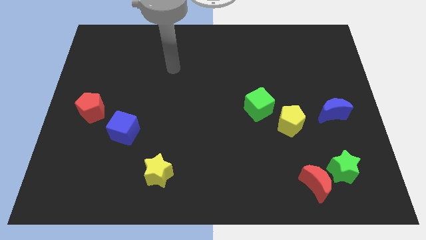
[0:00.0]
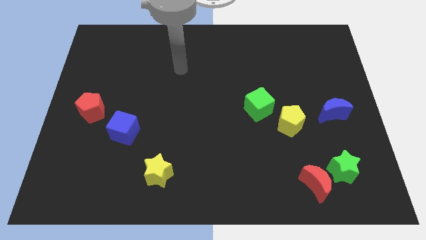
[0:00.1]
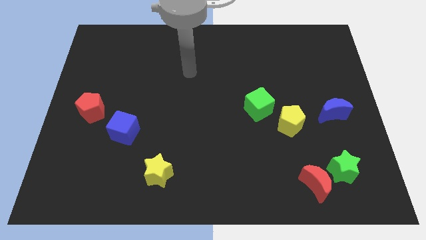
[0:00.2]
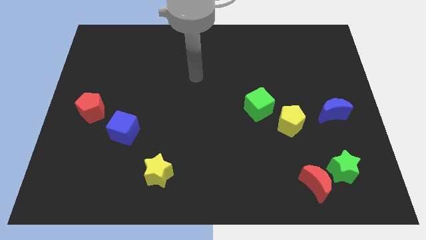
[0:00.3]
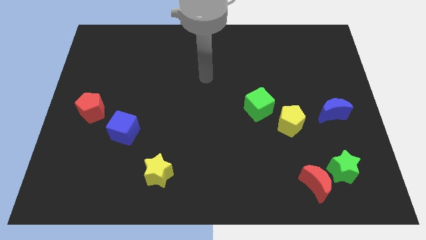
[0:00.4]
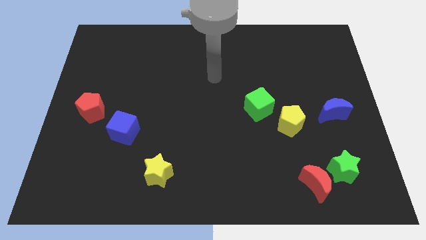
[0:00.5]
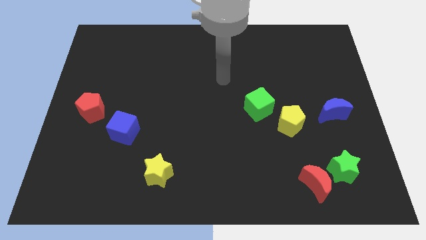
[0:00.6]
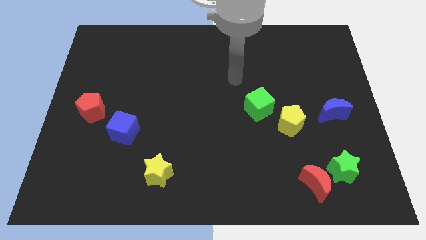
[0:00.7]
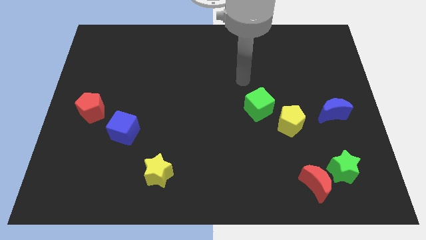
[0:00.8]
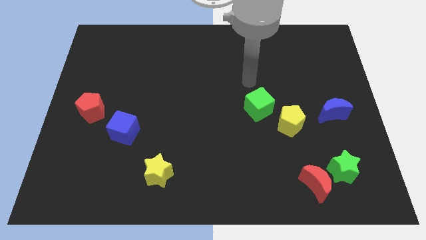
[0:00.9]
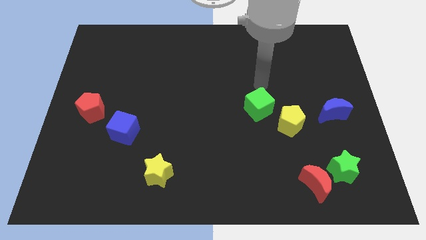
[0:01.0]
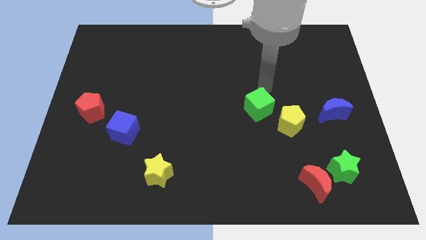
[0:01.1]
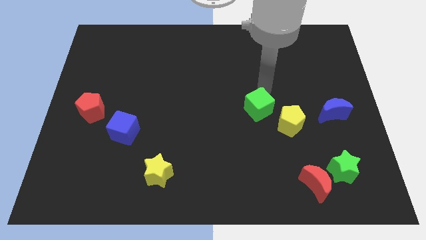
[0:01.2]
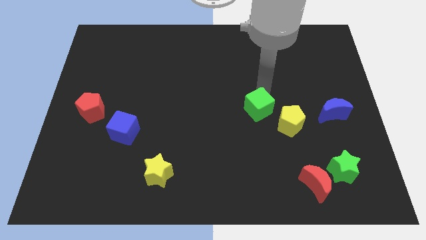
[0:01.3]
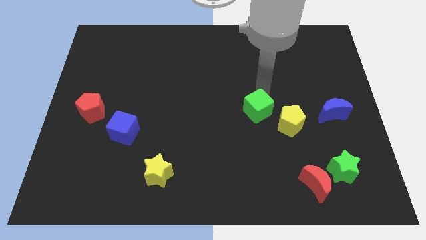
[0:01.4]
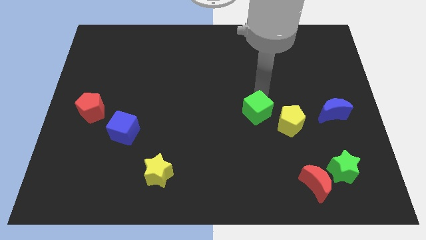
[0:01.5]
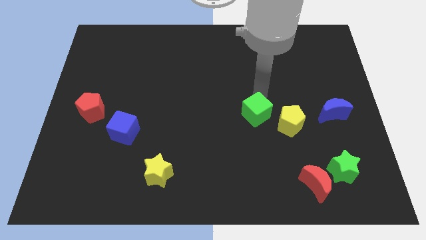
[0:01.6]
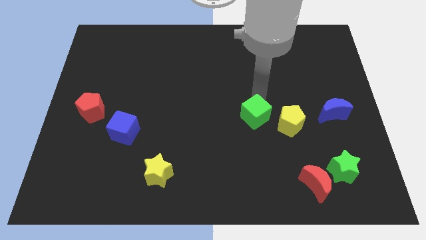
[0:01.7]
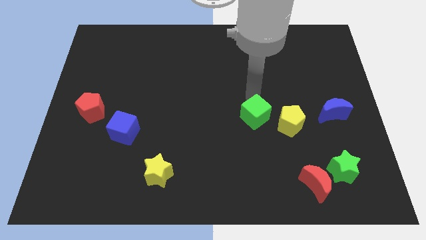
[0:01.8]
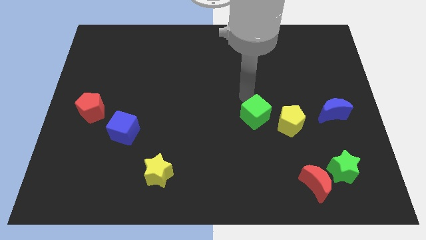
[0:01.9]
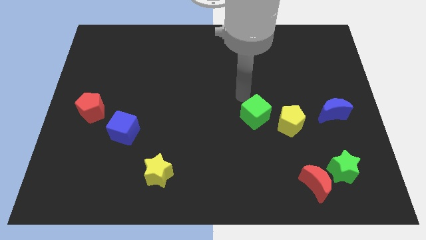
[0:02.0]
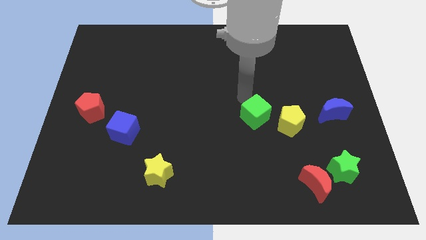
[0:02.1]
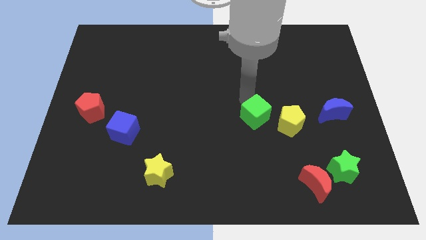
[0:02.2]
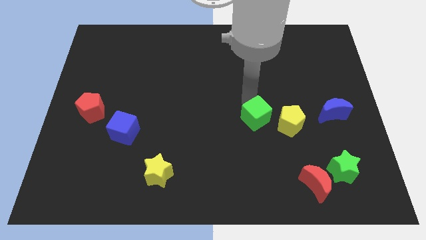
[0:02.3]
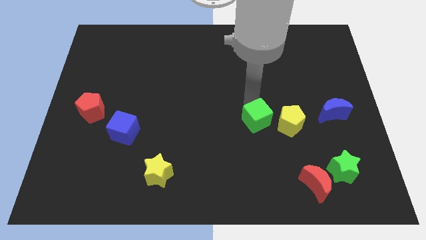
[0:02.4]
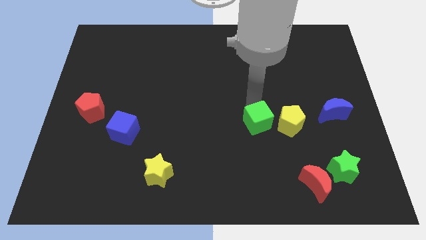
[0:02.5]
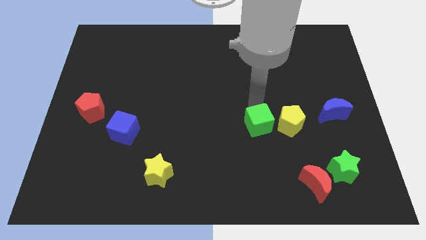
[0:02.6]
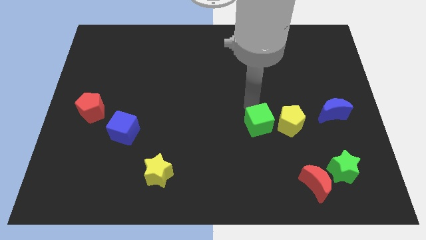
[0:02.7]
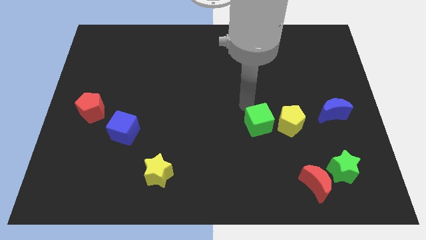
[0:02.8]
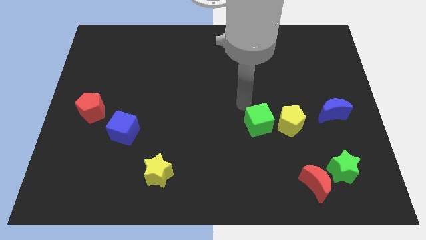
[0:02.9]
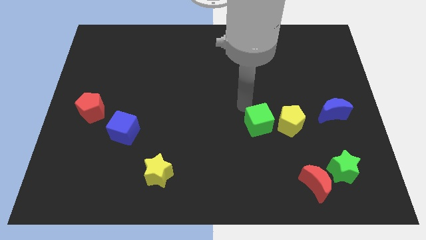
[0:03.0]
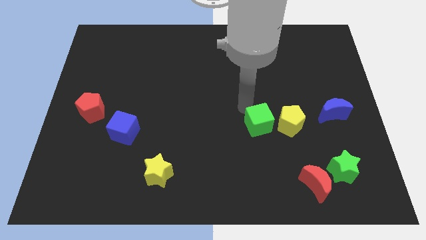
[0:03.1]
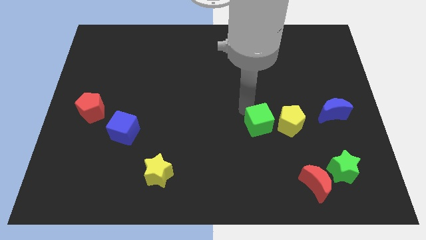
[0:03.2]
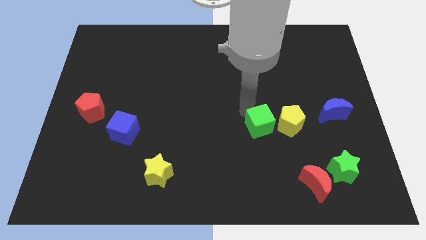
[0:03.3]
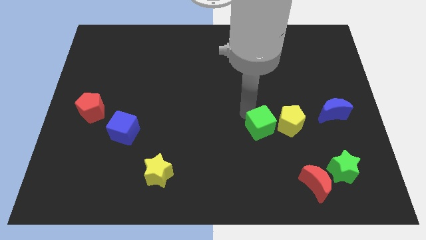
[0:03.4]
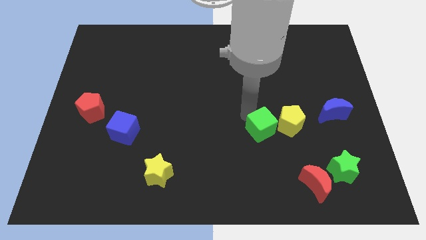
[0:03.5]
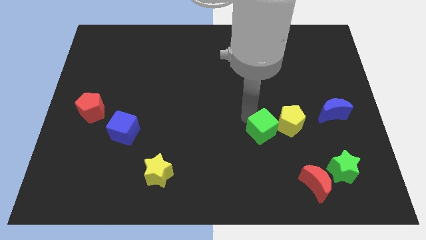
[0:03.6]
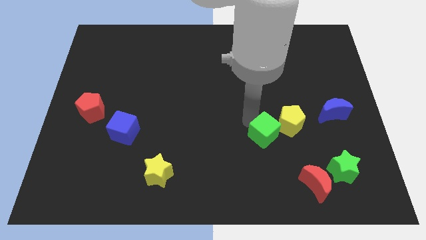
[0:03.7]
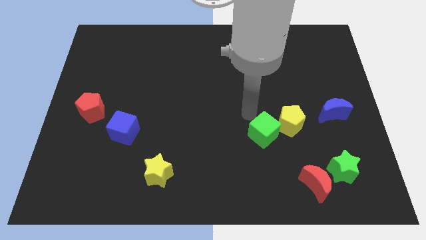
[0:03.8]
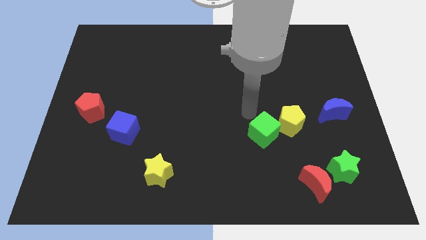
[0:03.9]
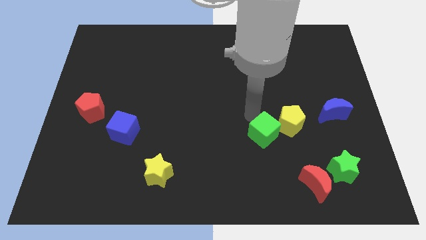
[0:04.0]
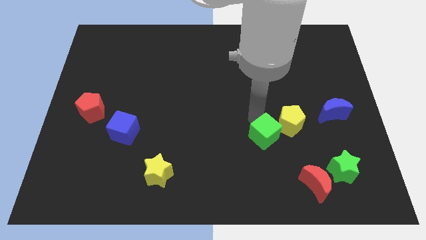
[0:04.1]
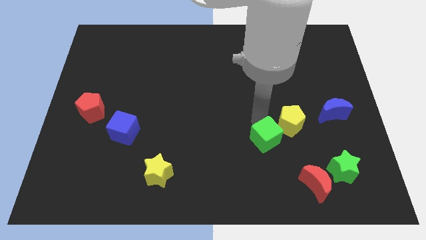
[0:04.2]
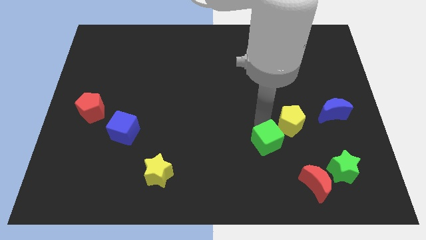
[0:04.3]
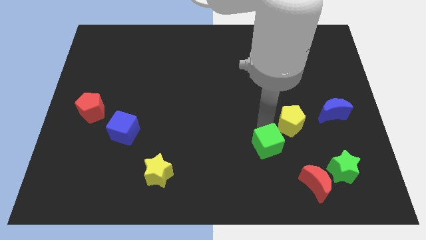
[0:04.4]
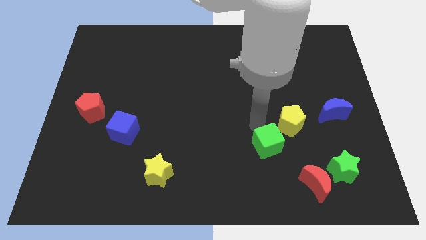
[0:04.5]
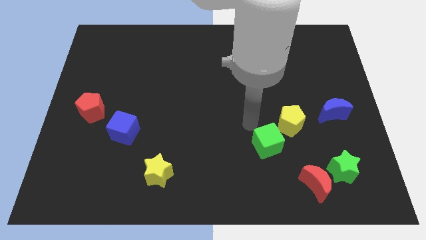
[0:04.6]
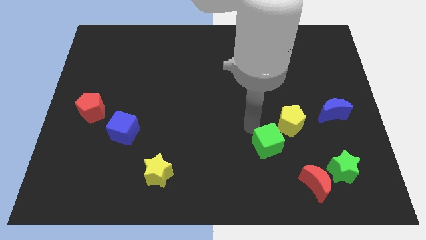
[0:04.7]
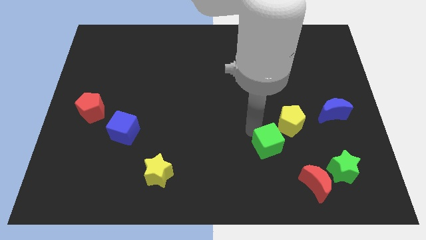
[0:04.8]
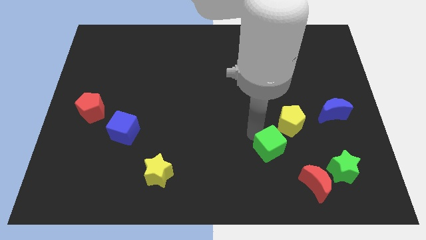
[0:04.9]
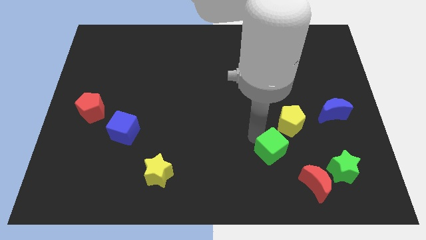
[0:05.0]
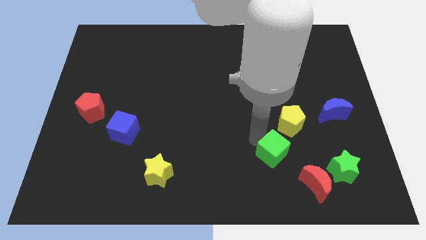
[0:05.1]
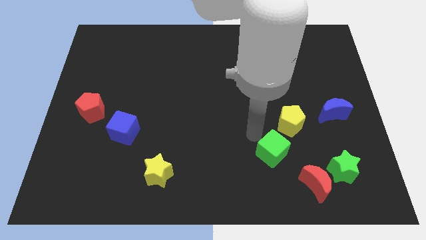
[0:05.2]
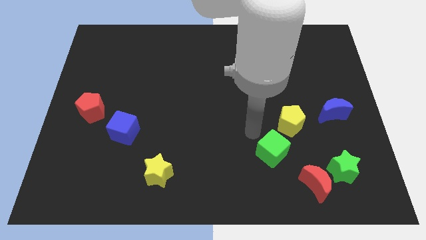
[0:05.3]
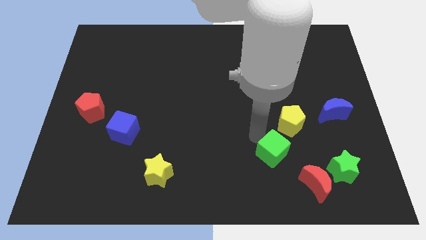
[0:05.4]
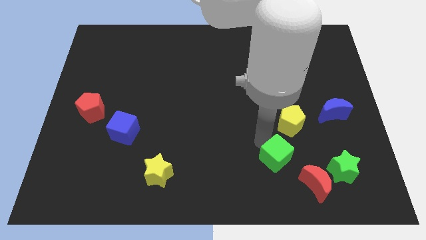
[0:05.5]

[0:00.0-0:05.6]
push the green cube to the left of the green star

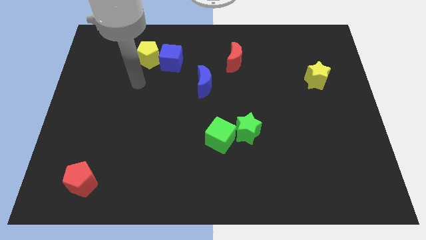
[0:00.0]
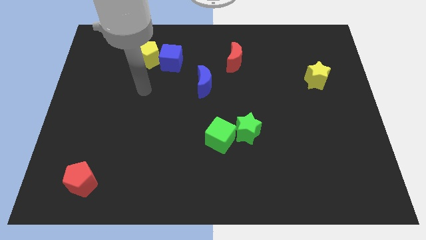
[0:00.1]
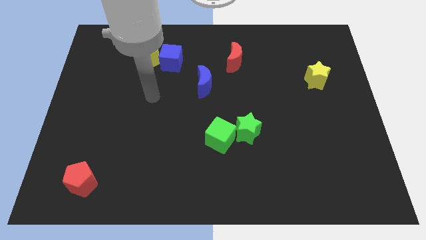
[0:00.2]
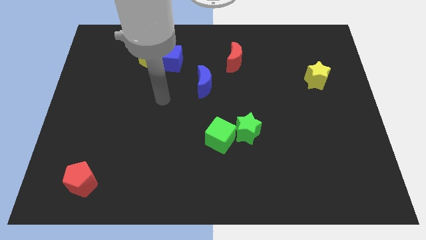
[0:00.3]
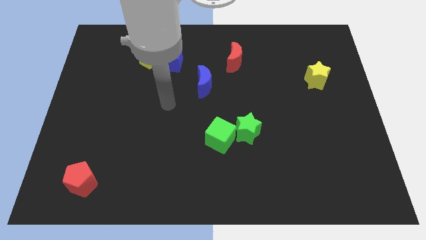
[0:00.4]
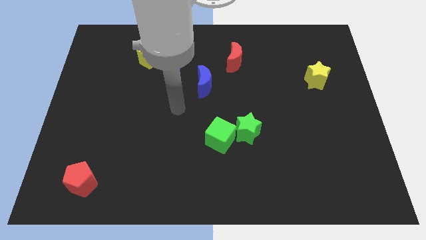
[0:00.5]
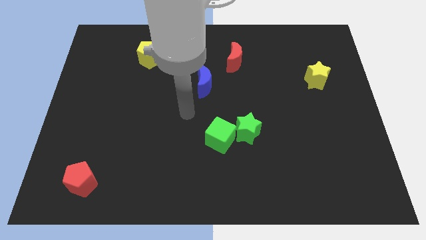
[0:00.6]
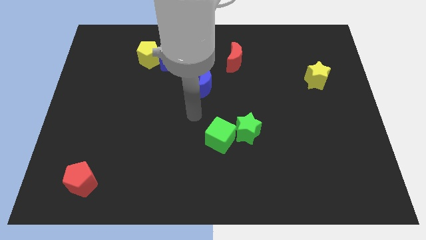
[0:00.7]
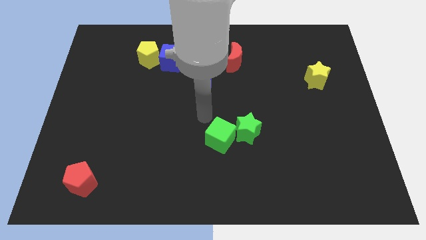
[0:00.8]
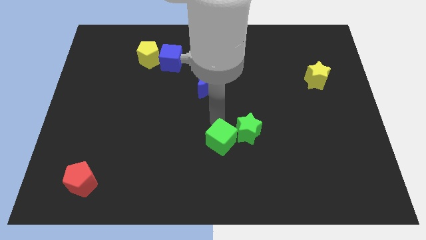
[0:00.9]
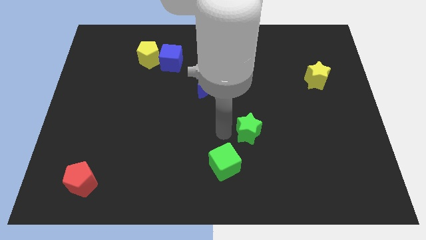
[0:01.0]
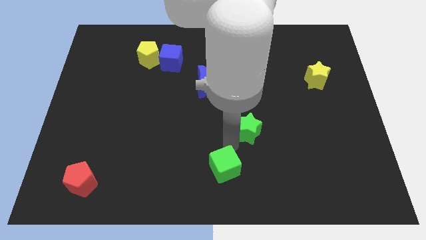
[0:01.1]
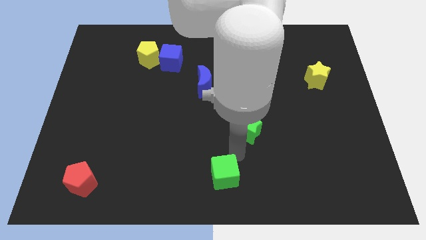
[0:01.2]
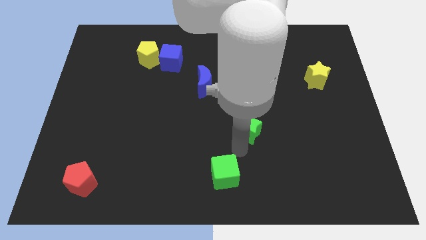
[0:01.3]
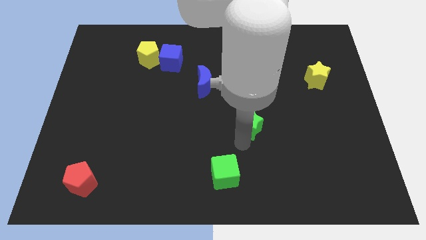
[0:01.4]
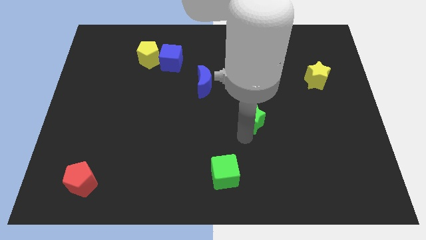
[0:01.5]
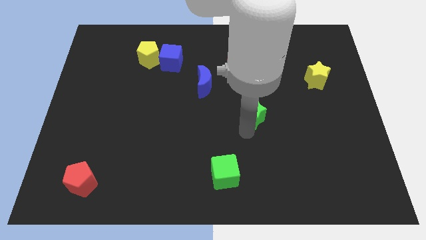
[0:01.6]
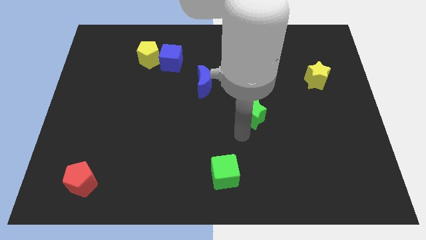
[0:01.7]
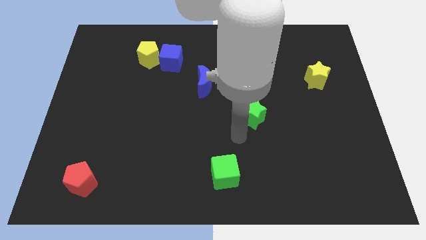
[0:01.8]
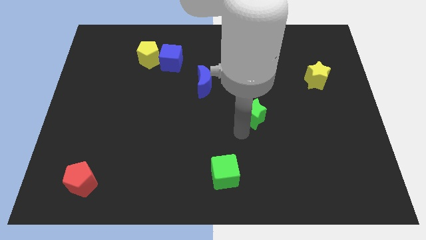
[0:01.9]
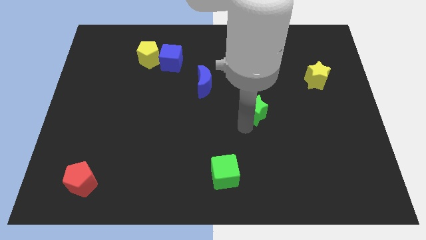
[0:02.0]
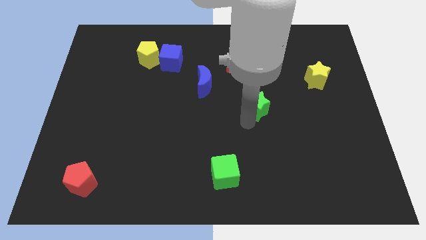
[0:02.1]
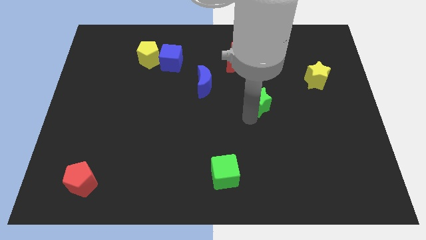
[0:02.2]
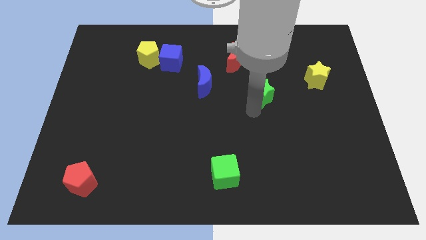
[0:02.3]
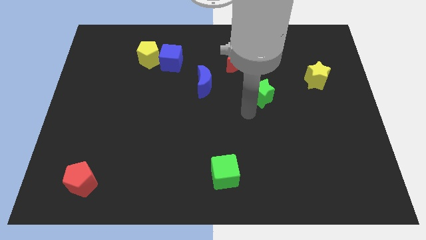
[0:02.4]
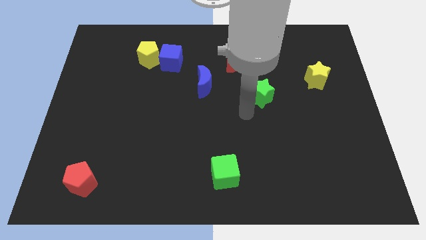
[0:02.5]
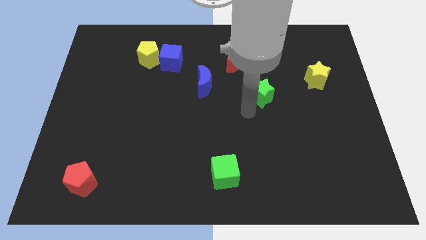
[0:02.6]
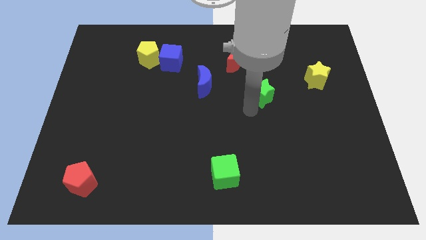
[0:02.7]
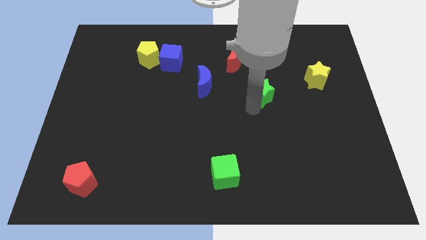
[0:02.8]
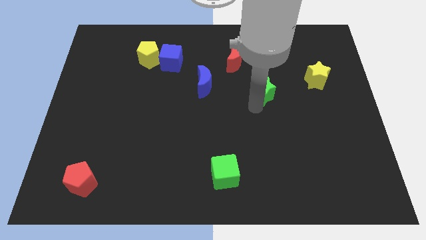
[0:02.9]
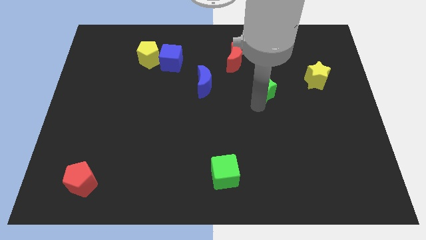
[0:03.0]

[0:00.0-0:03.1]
slide the green star to the left side of the yellow star
